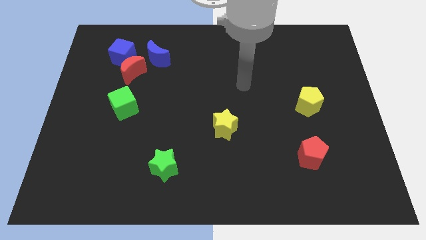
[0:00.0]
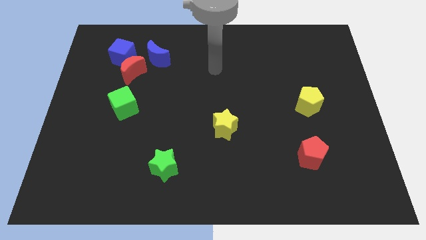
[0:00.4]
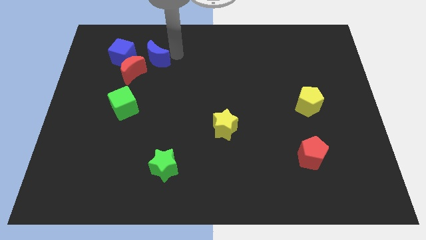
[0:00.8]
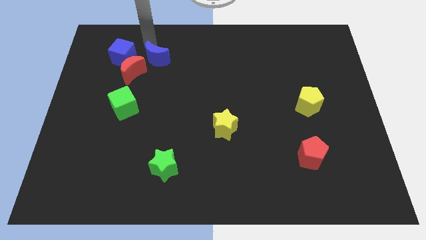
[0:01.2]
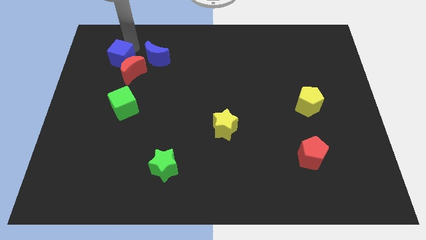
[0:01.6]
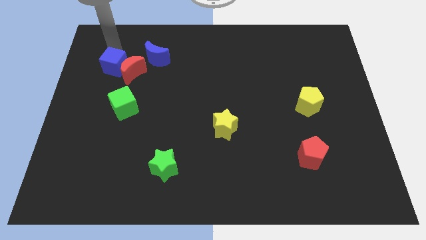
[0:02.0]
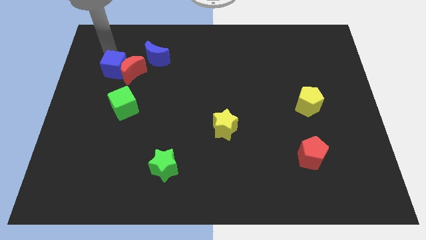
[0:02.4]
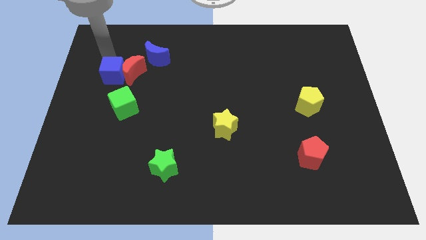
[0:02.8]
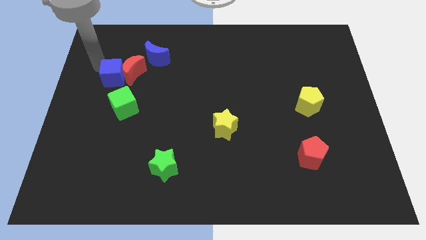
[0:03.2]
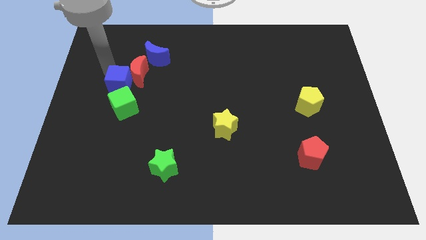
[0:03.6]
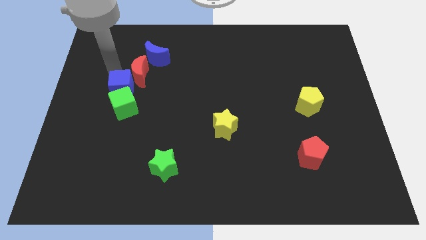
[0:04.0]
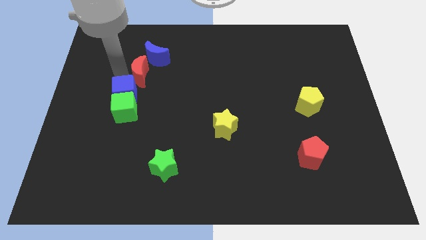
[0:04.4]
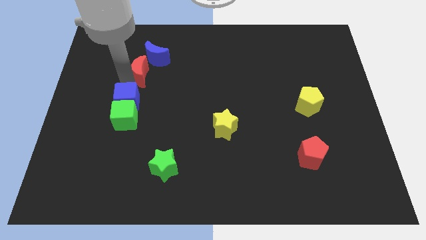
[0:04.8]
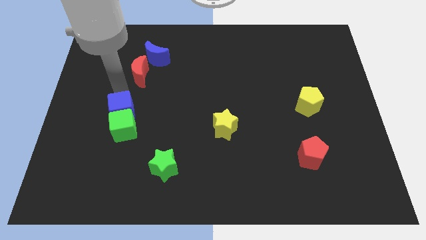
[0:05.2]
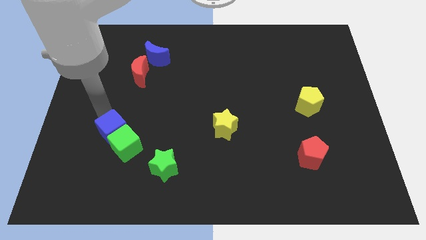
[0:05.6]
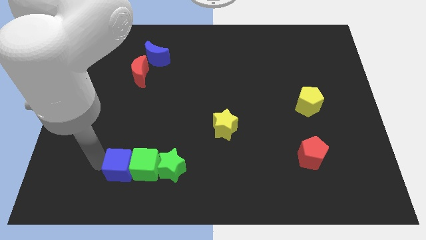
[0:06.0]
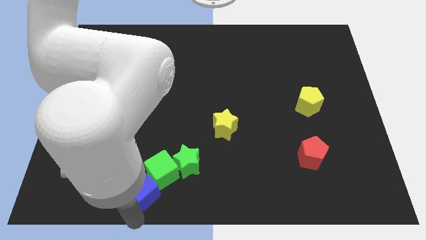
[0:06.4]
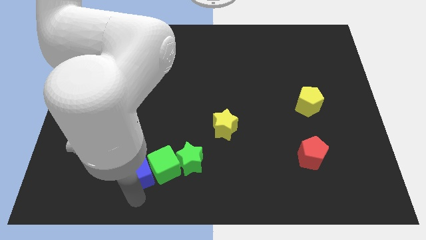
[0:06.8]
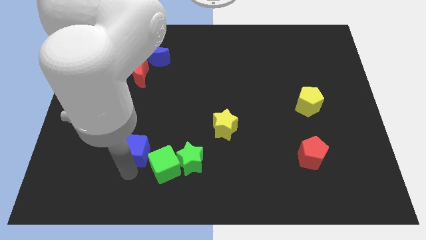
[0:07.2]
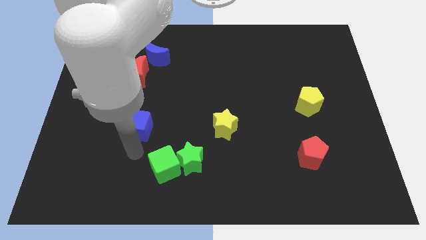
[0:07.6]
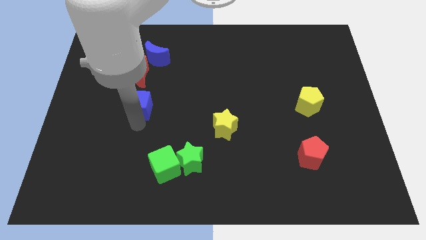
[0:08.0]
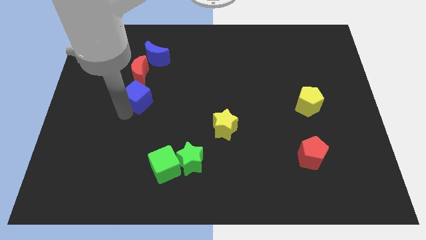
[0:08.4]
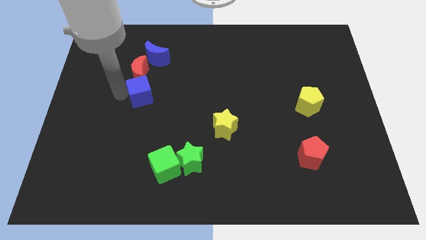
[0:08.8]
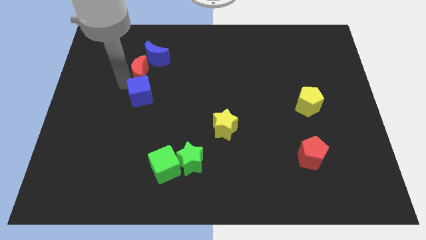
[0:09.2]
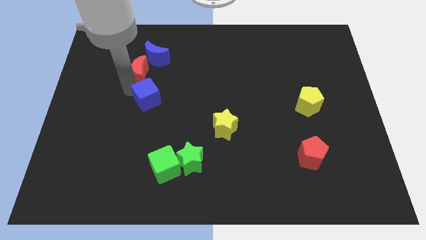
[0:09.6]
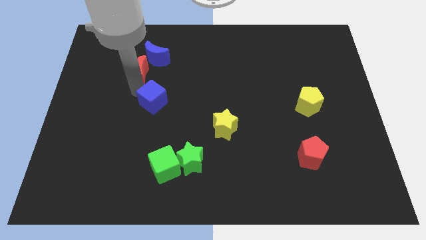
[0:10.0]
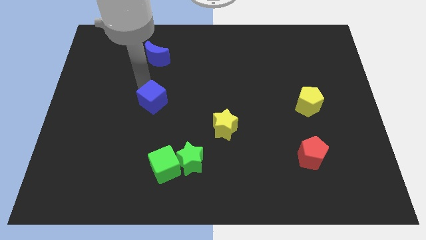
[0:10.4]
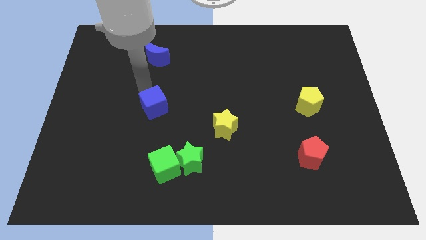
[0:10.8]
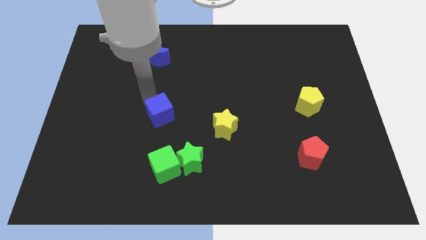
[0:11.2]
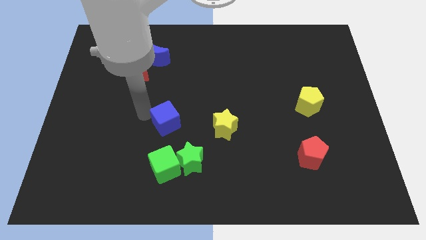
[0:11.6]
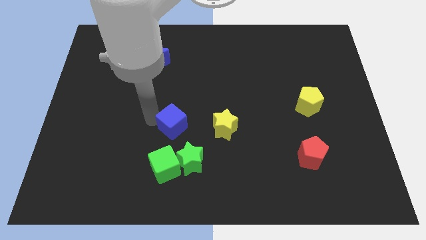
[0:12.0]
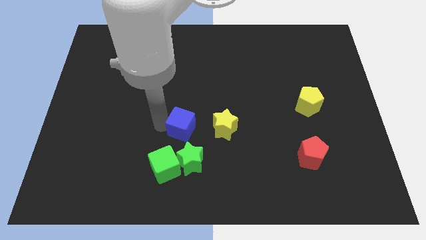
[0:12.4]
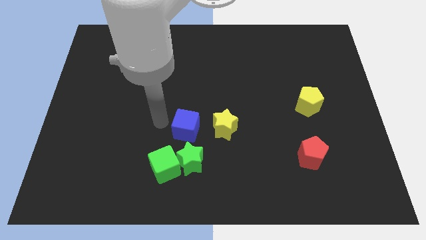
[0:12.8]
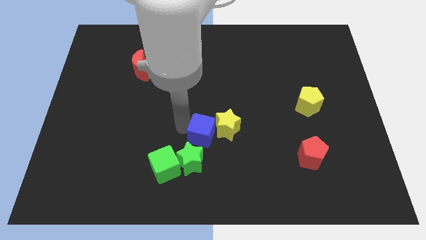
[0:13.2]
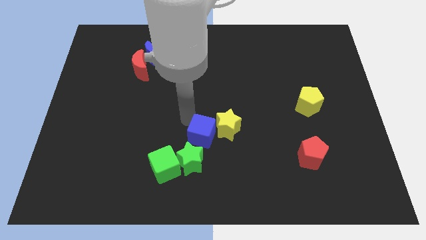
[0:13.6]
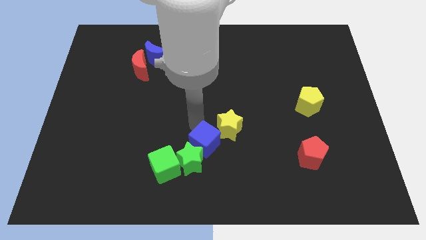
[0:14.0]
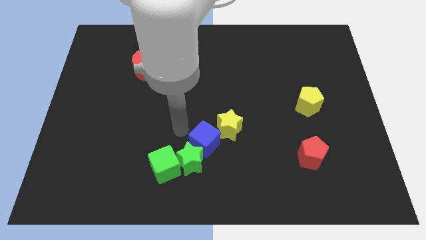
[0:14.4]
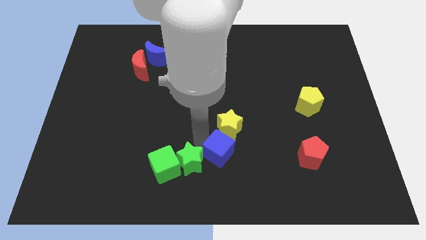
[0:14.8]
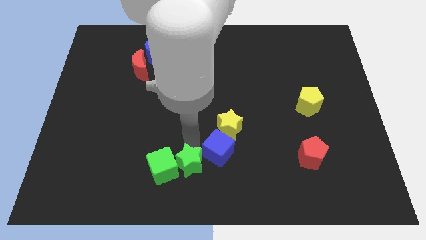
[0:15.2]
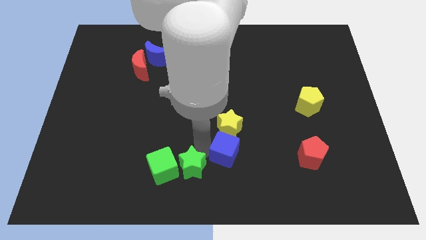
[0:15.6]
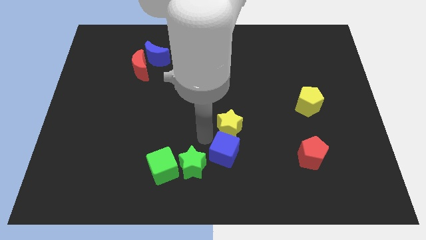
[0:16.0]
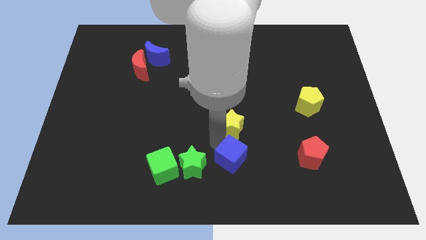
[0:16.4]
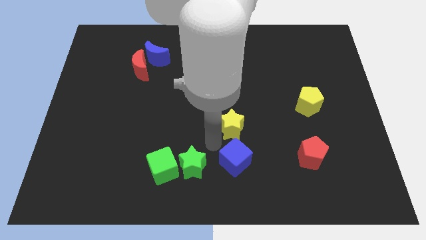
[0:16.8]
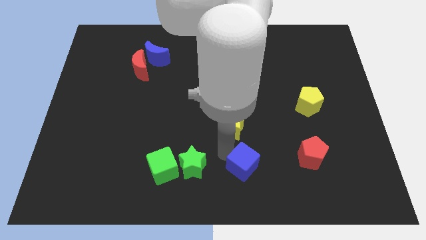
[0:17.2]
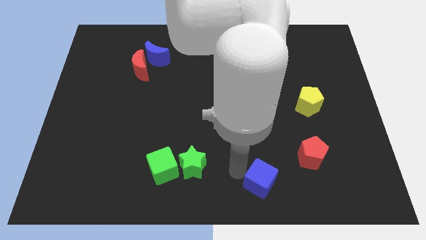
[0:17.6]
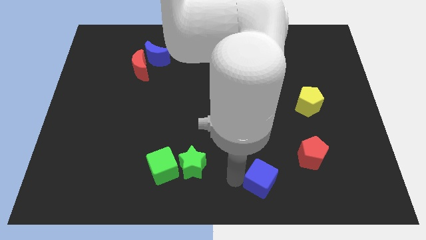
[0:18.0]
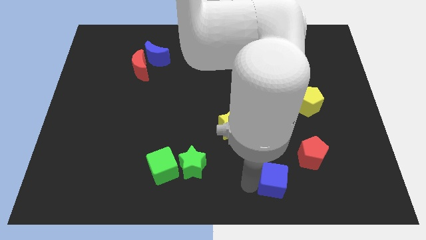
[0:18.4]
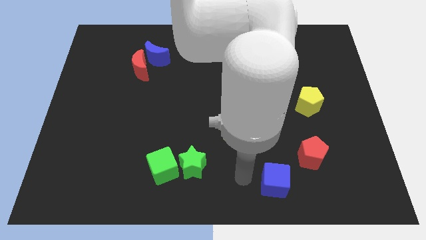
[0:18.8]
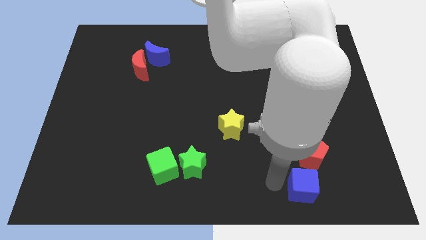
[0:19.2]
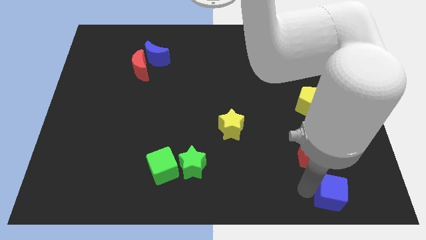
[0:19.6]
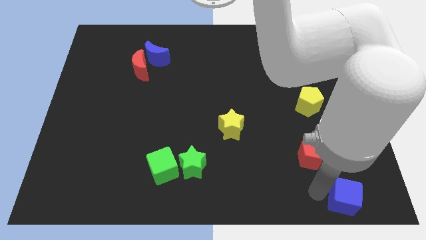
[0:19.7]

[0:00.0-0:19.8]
put the blue cube to the bottom right corner
